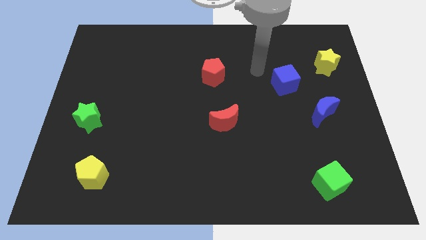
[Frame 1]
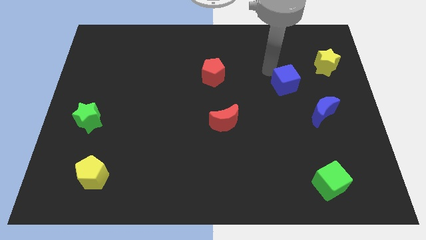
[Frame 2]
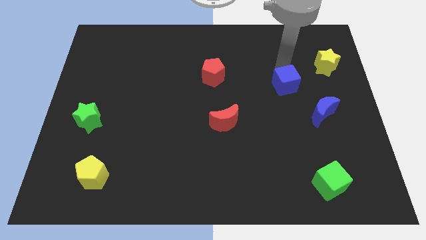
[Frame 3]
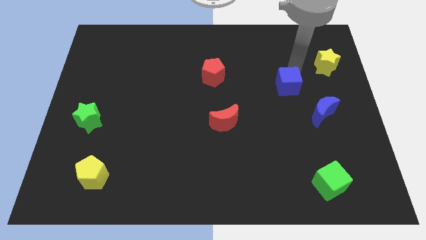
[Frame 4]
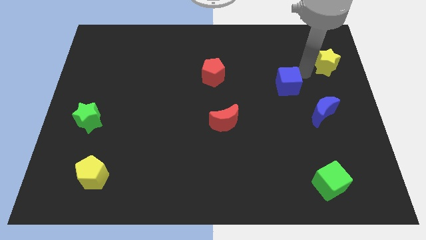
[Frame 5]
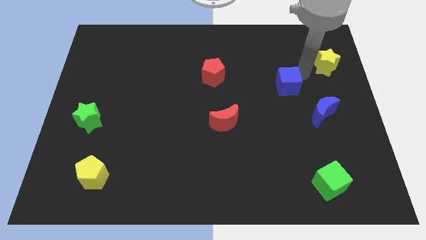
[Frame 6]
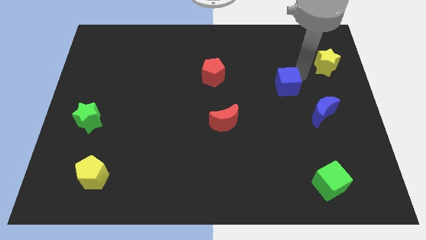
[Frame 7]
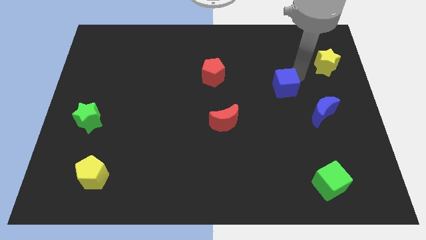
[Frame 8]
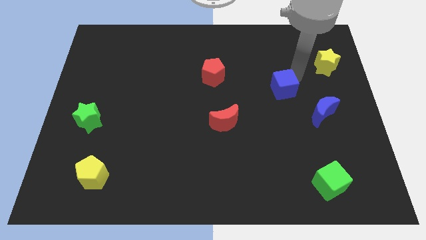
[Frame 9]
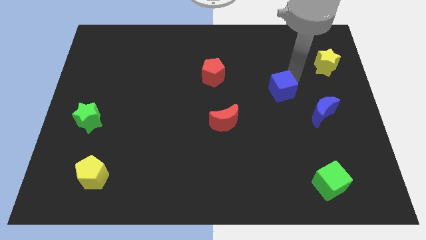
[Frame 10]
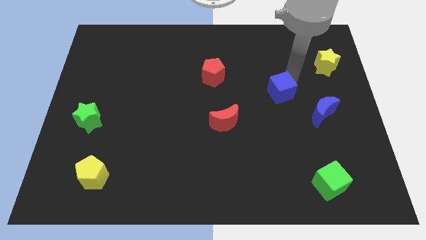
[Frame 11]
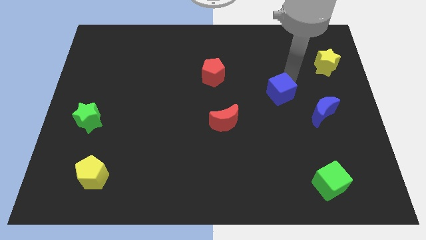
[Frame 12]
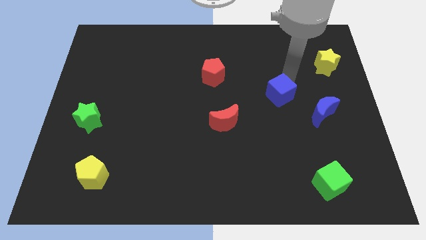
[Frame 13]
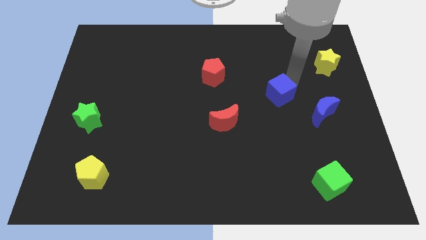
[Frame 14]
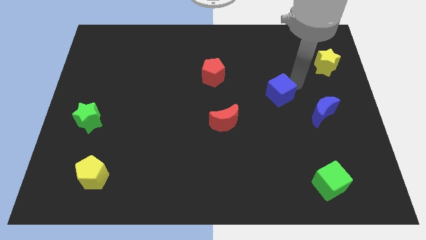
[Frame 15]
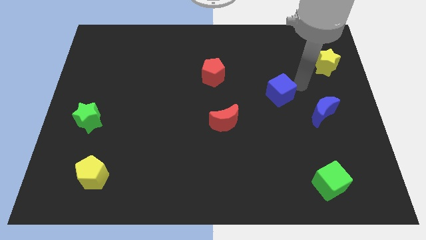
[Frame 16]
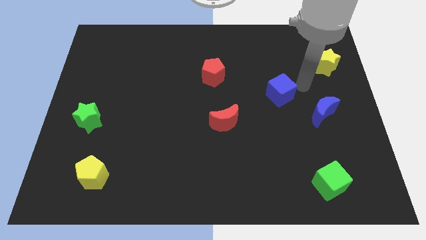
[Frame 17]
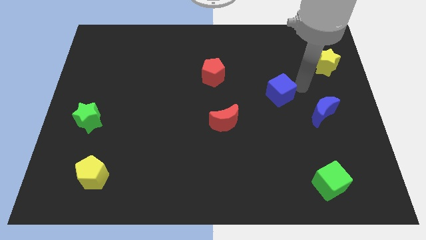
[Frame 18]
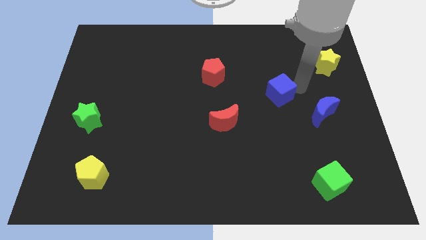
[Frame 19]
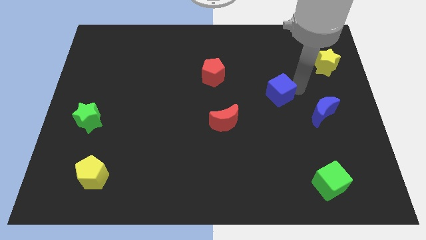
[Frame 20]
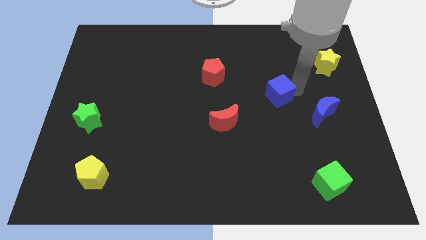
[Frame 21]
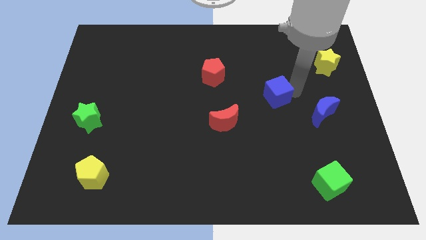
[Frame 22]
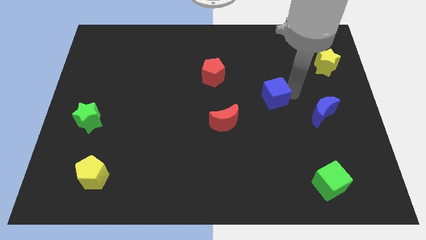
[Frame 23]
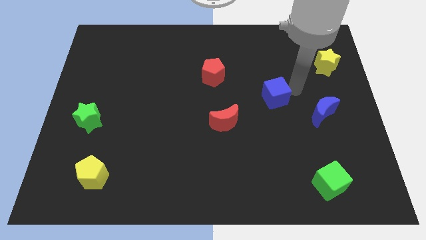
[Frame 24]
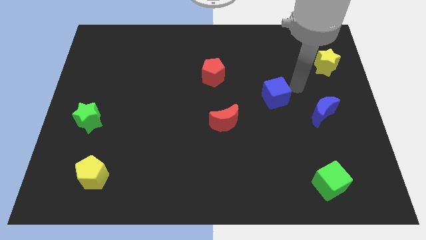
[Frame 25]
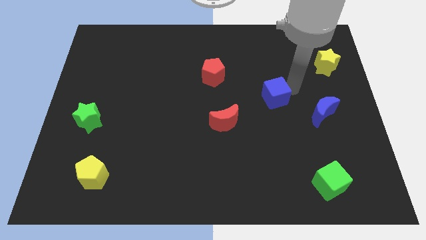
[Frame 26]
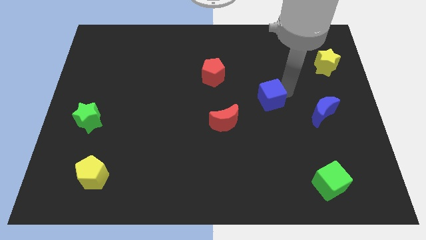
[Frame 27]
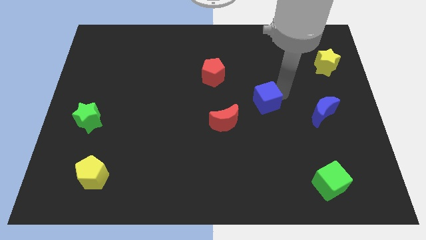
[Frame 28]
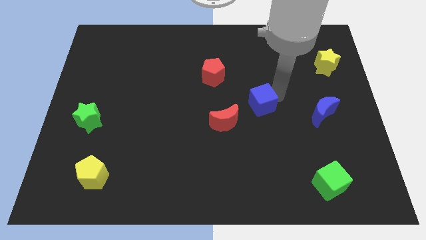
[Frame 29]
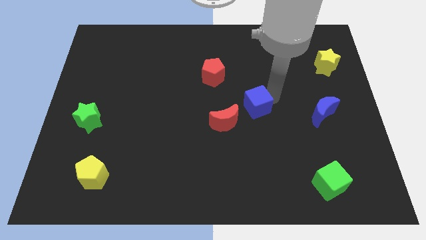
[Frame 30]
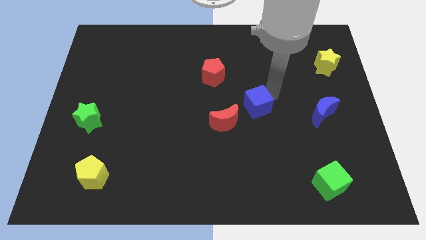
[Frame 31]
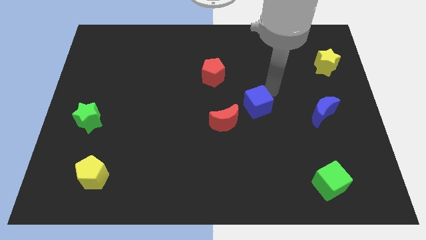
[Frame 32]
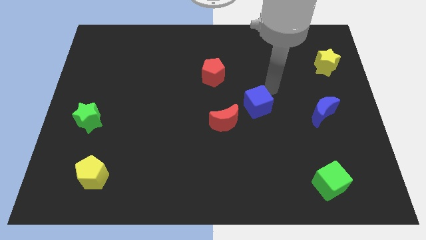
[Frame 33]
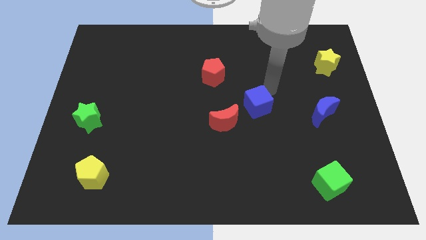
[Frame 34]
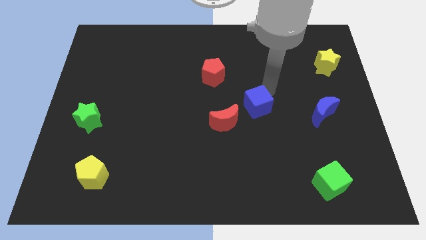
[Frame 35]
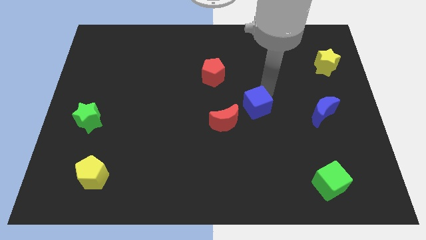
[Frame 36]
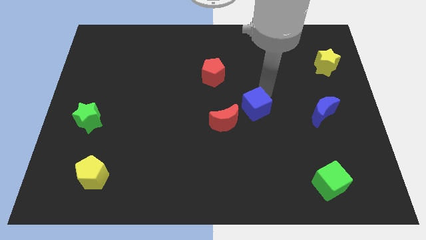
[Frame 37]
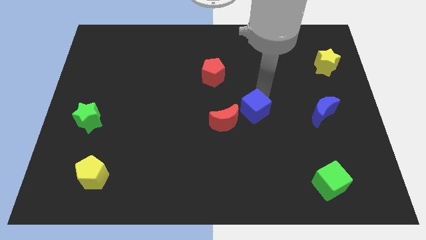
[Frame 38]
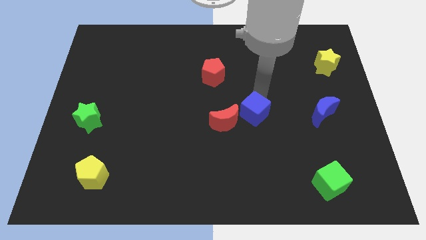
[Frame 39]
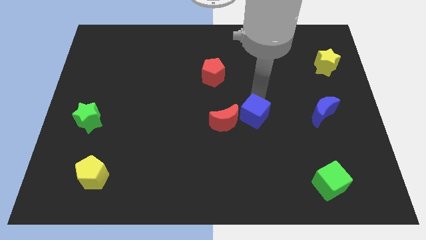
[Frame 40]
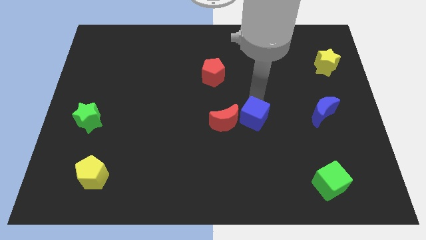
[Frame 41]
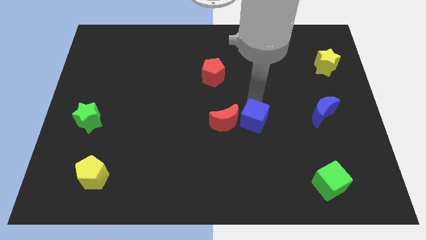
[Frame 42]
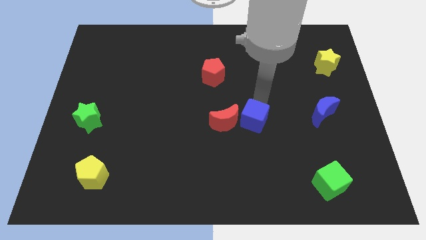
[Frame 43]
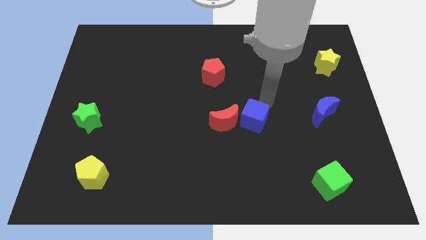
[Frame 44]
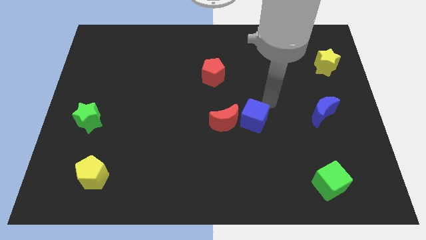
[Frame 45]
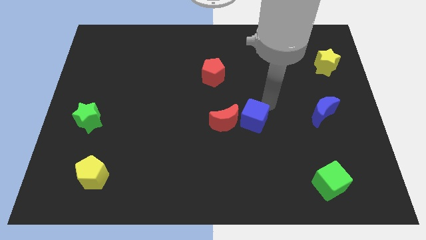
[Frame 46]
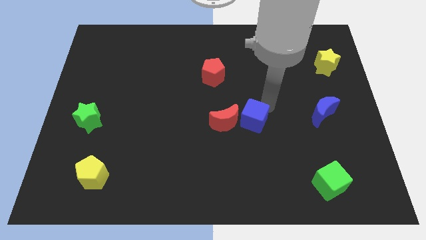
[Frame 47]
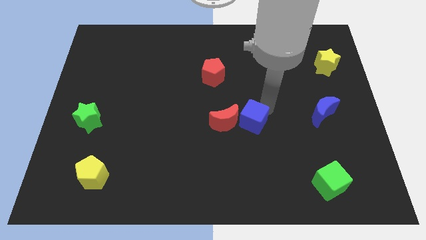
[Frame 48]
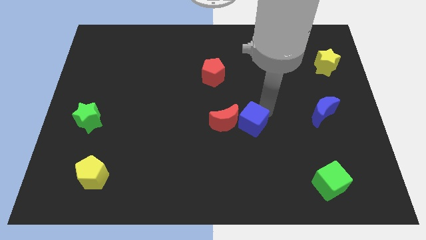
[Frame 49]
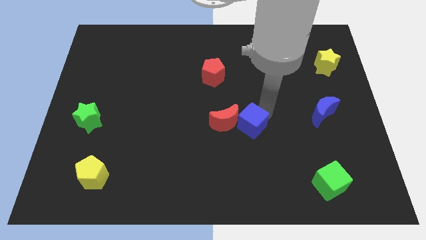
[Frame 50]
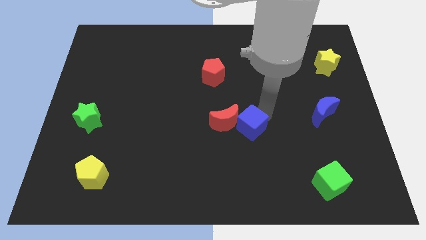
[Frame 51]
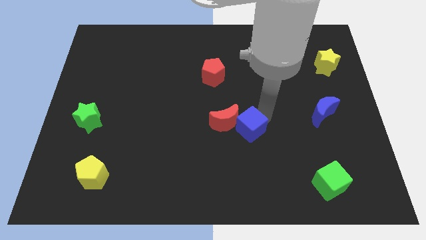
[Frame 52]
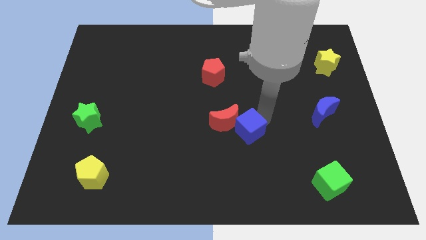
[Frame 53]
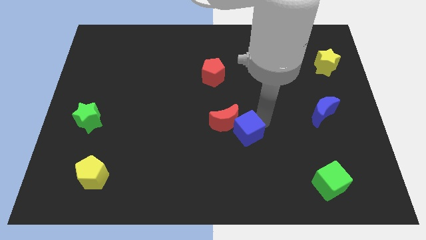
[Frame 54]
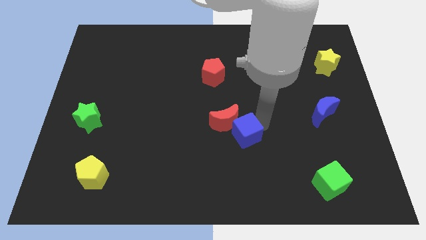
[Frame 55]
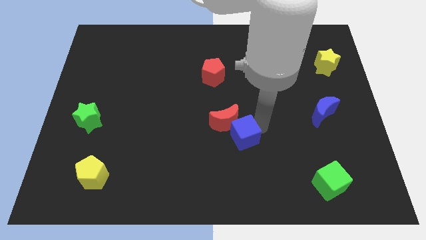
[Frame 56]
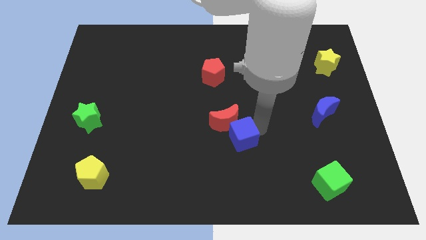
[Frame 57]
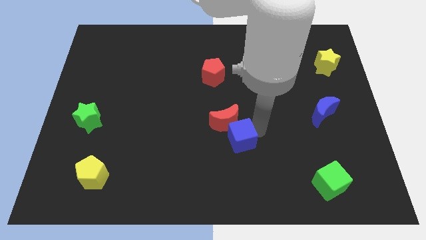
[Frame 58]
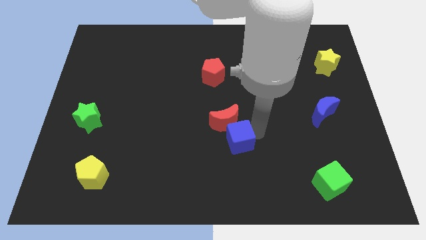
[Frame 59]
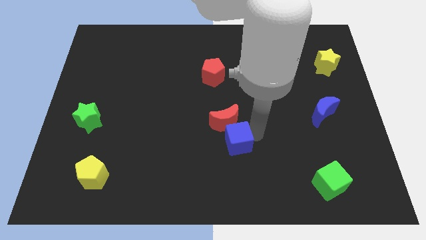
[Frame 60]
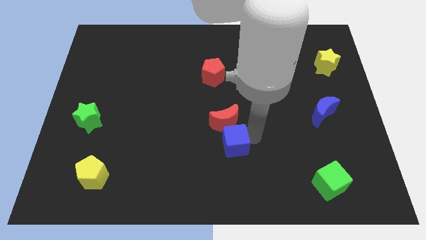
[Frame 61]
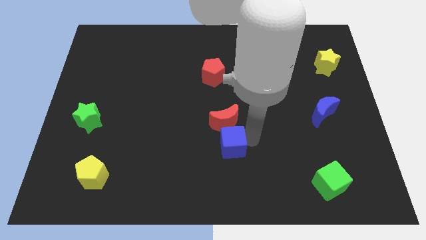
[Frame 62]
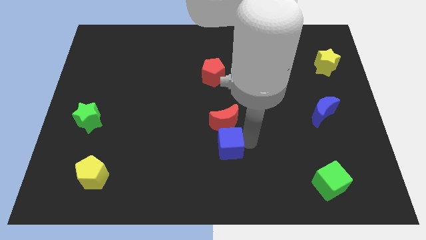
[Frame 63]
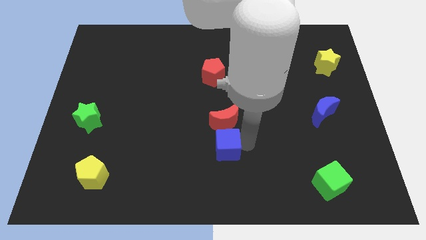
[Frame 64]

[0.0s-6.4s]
push the blue cube diagonally down and to the left of the red moon
